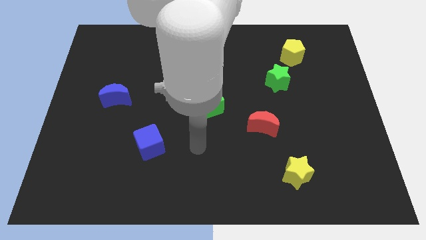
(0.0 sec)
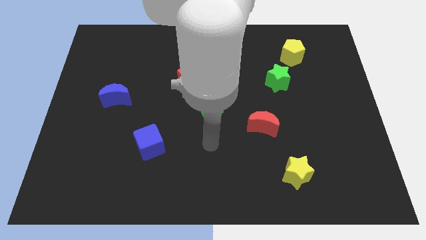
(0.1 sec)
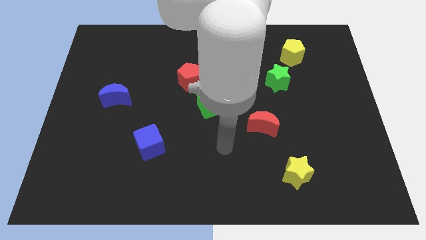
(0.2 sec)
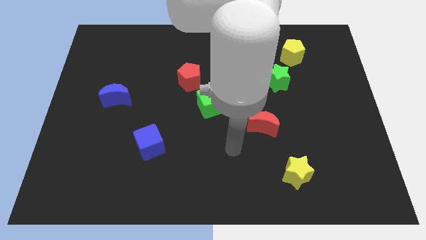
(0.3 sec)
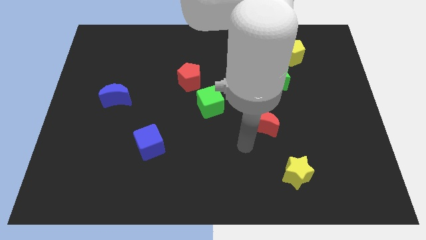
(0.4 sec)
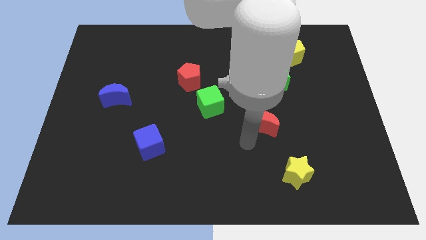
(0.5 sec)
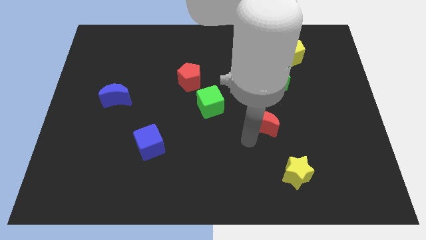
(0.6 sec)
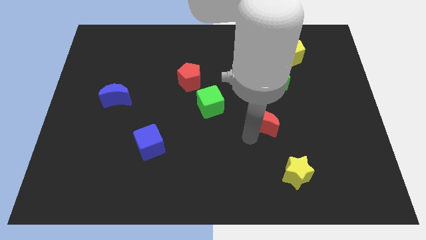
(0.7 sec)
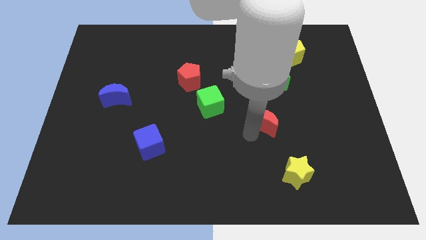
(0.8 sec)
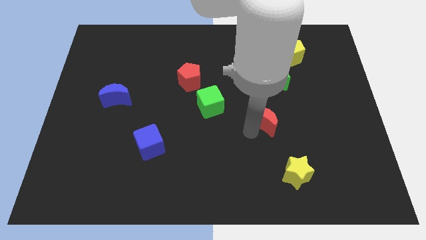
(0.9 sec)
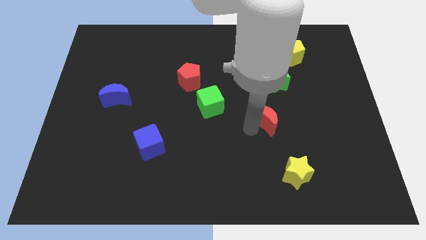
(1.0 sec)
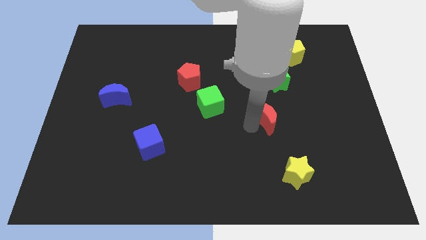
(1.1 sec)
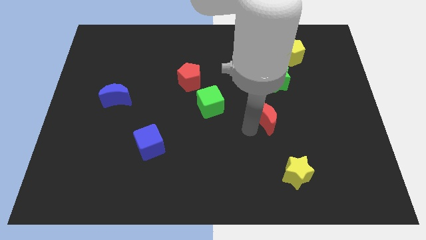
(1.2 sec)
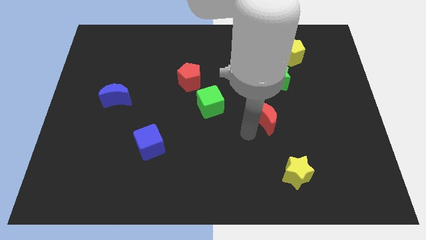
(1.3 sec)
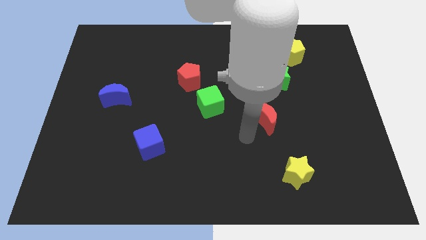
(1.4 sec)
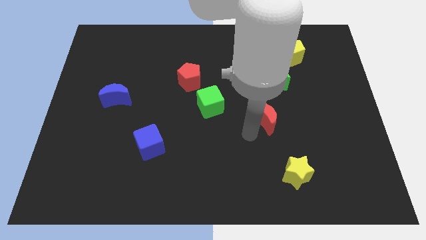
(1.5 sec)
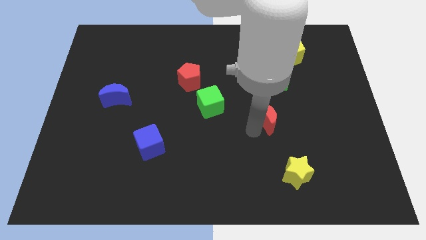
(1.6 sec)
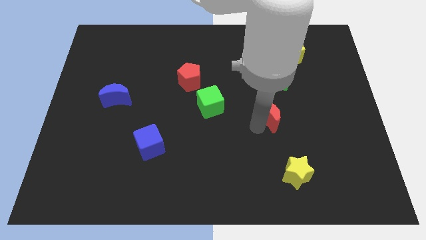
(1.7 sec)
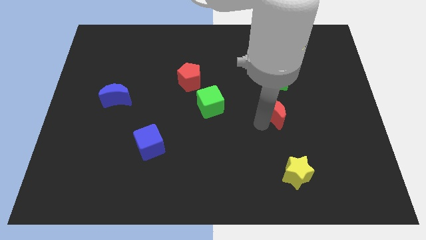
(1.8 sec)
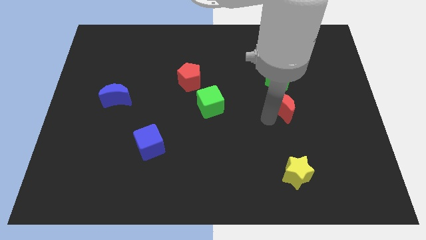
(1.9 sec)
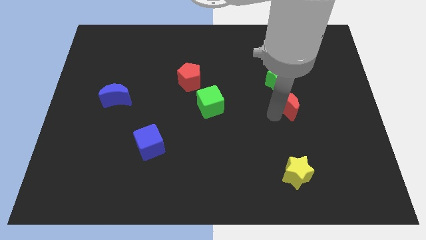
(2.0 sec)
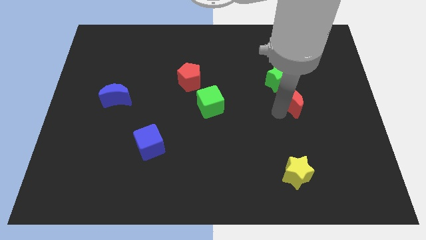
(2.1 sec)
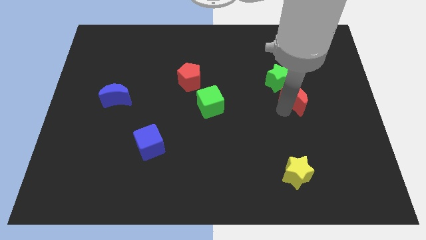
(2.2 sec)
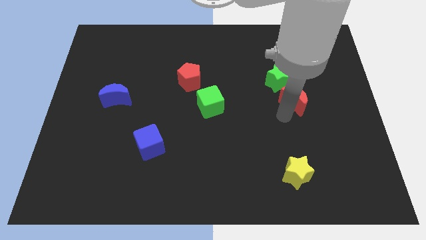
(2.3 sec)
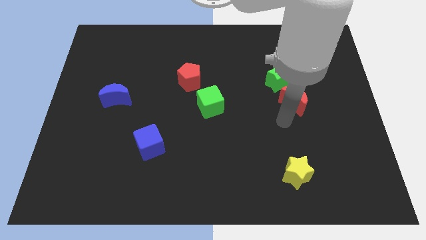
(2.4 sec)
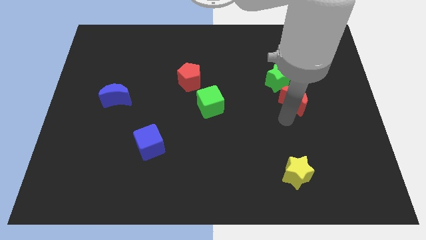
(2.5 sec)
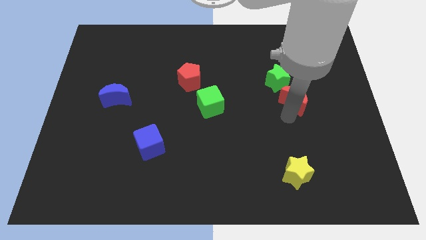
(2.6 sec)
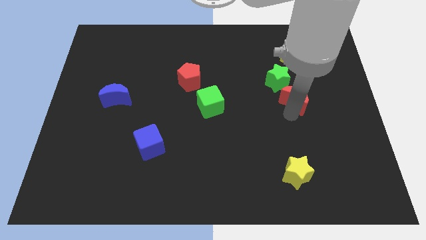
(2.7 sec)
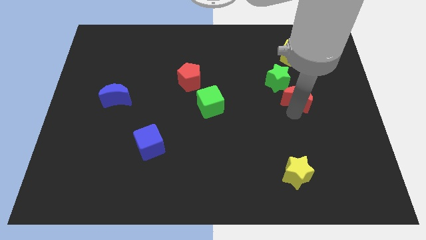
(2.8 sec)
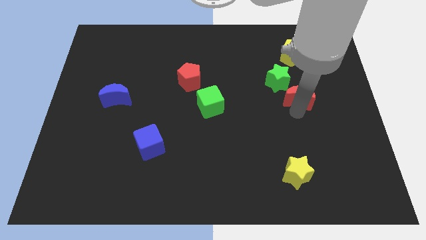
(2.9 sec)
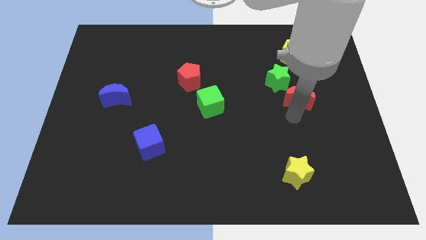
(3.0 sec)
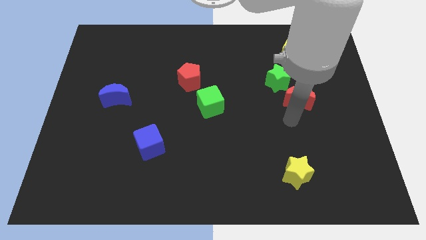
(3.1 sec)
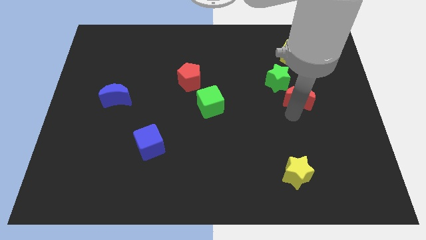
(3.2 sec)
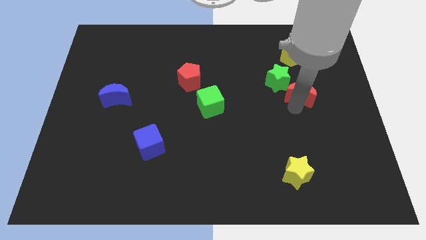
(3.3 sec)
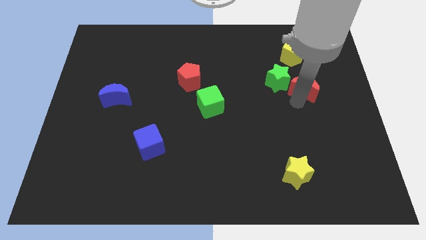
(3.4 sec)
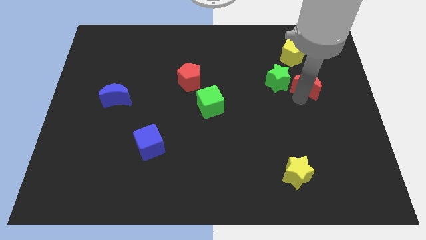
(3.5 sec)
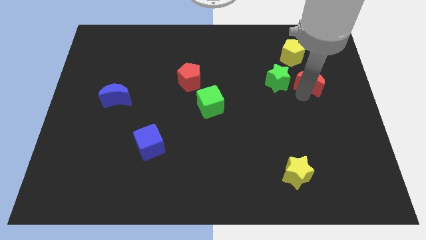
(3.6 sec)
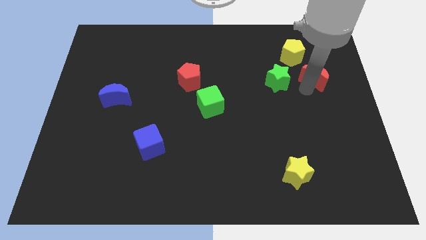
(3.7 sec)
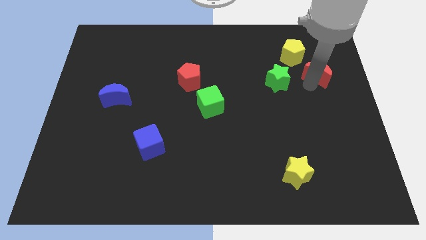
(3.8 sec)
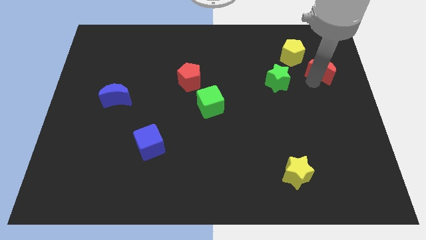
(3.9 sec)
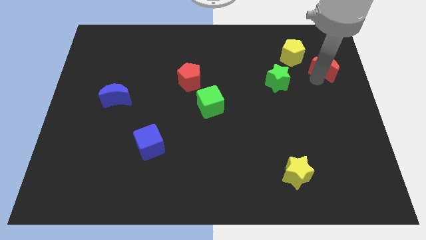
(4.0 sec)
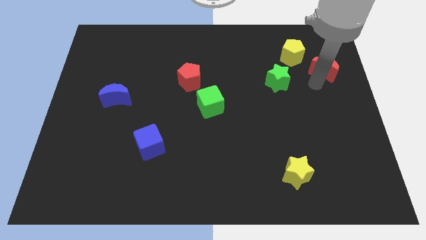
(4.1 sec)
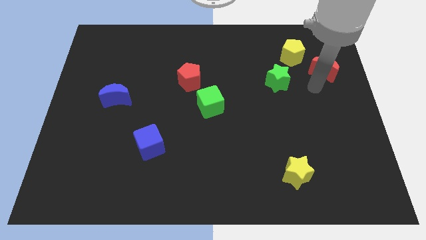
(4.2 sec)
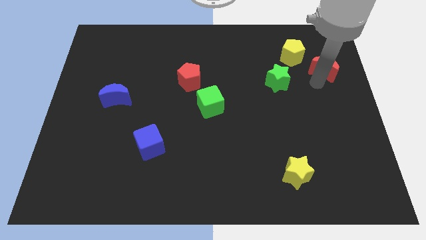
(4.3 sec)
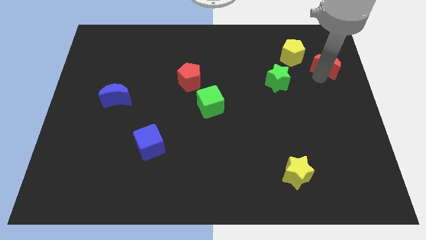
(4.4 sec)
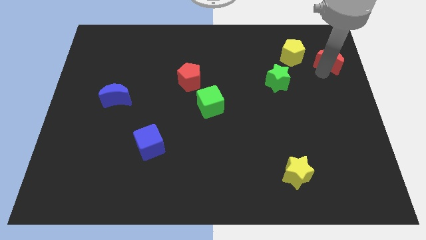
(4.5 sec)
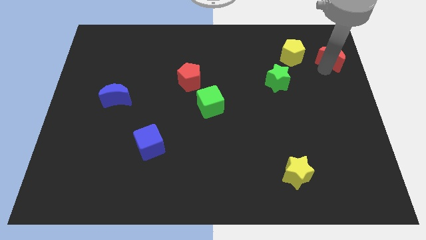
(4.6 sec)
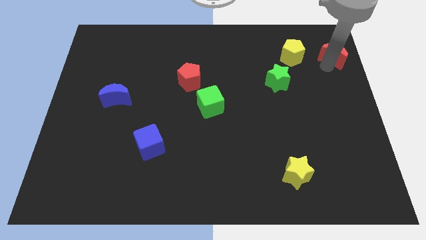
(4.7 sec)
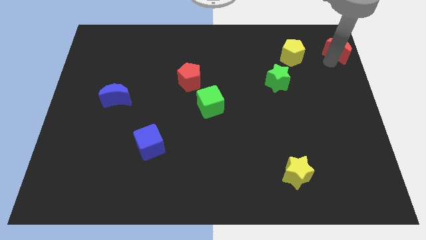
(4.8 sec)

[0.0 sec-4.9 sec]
slide the red moon to the top right

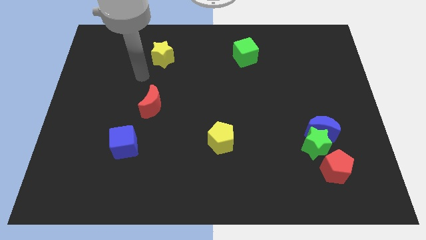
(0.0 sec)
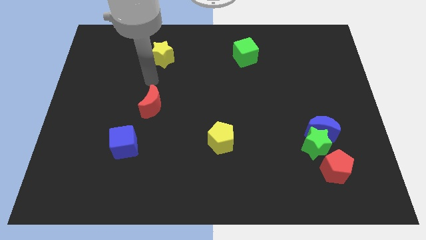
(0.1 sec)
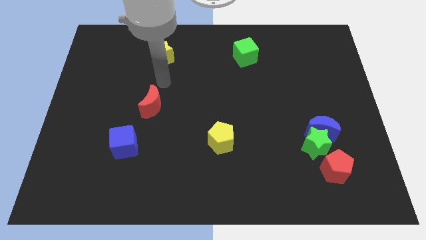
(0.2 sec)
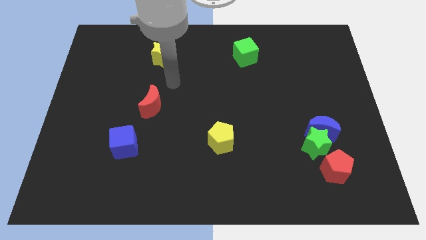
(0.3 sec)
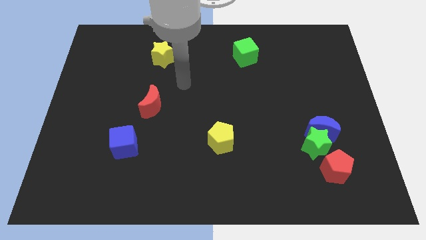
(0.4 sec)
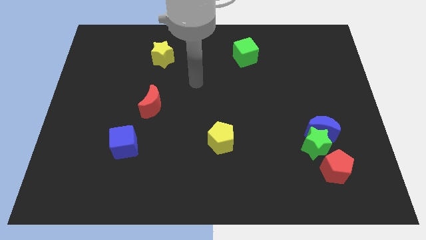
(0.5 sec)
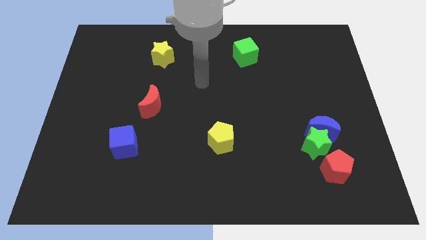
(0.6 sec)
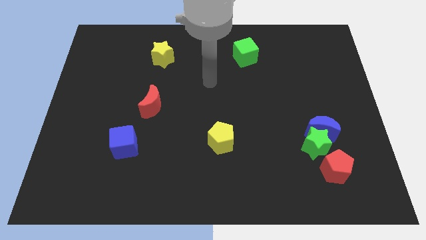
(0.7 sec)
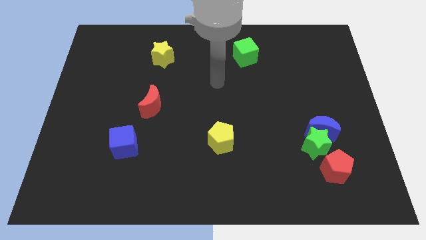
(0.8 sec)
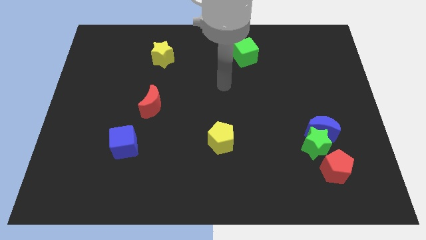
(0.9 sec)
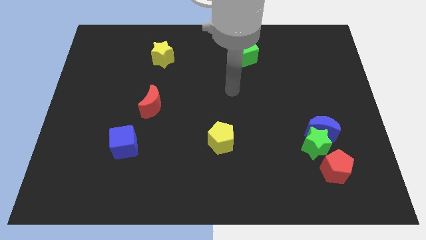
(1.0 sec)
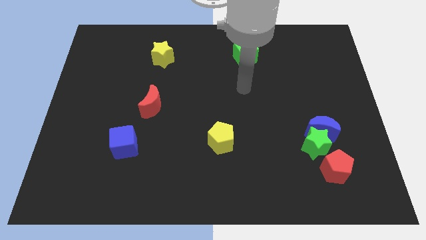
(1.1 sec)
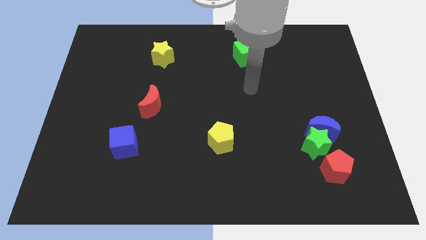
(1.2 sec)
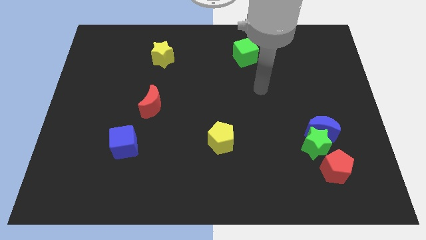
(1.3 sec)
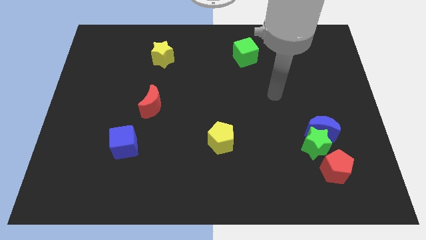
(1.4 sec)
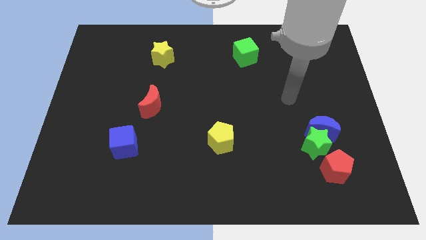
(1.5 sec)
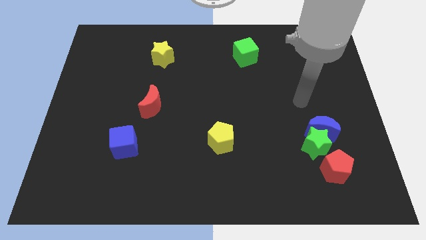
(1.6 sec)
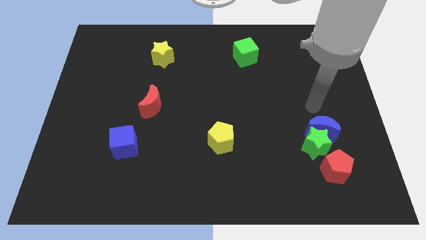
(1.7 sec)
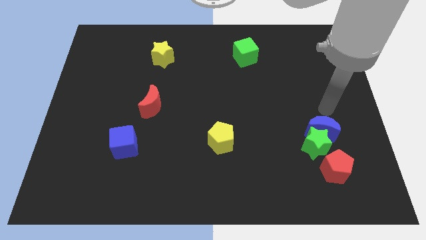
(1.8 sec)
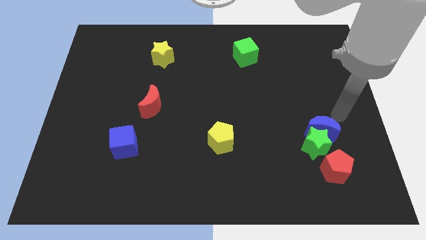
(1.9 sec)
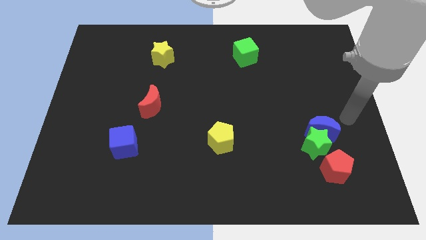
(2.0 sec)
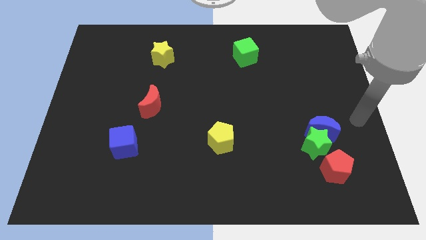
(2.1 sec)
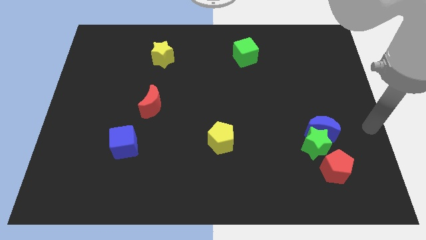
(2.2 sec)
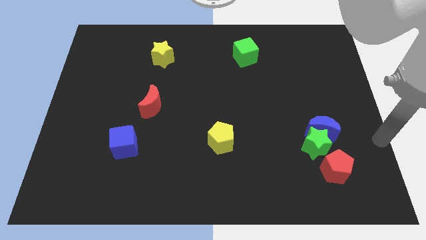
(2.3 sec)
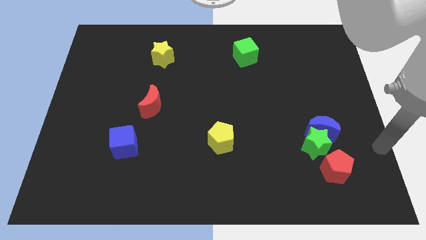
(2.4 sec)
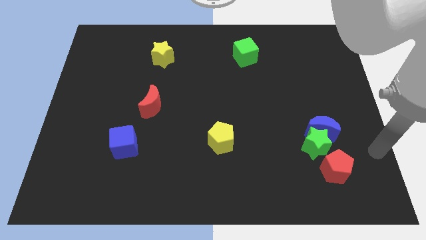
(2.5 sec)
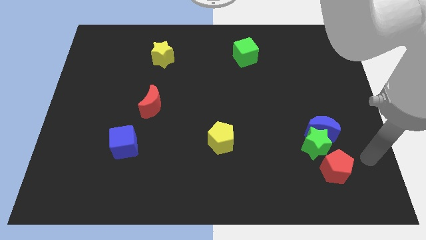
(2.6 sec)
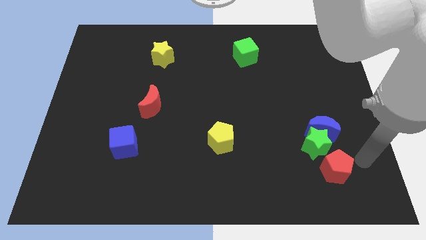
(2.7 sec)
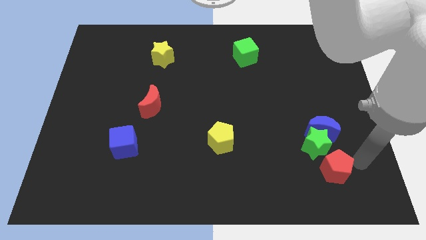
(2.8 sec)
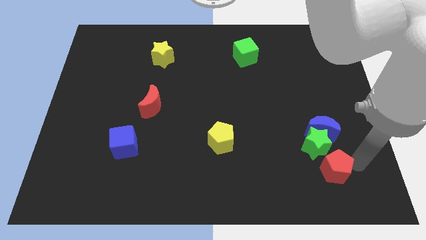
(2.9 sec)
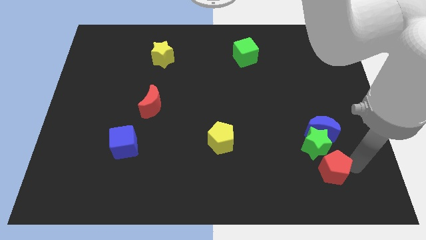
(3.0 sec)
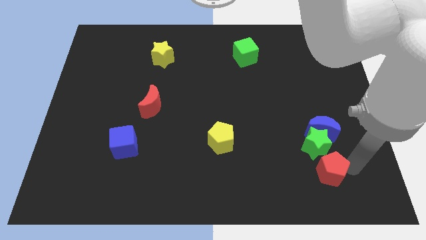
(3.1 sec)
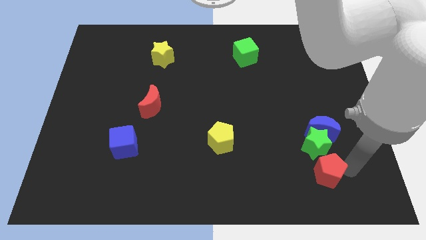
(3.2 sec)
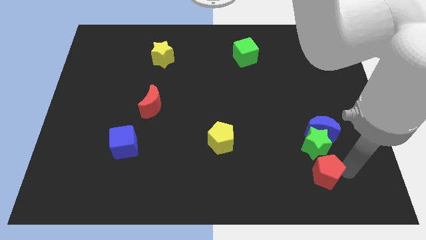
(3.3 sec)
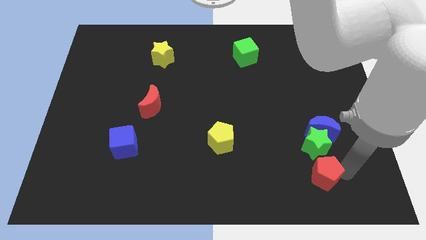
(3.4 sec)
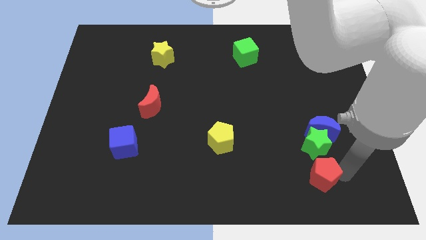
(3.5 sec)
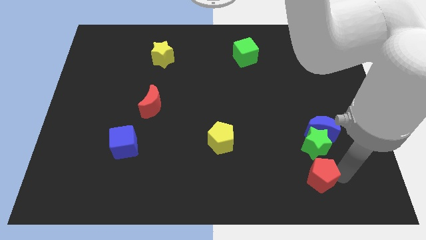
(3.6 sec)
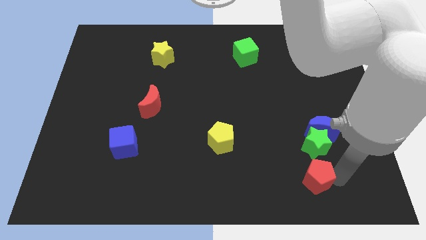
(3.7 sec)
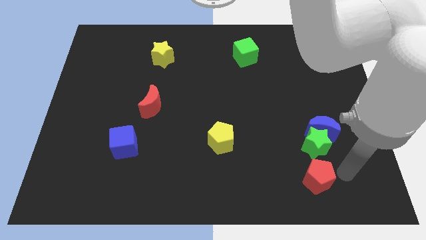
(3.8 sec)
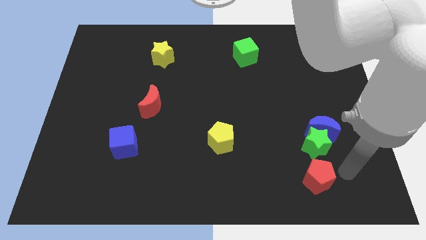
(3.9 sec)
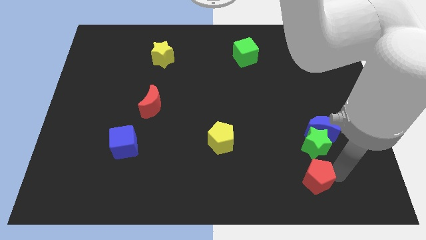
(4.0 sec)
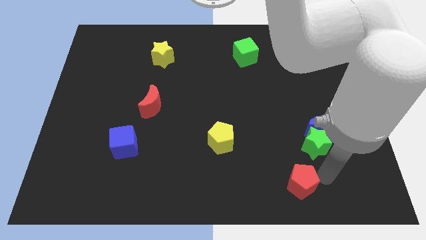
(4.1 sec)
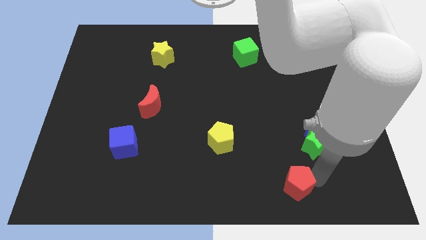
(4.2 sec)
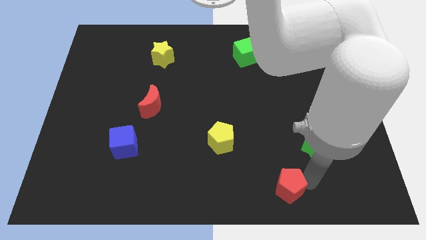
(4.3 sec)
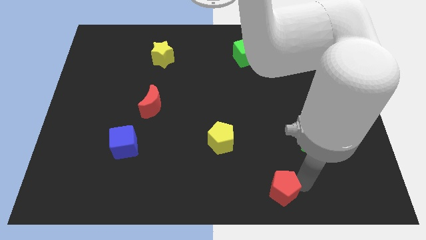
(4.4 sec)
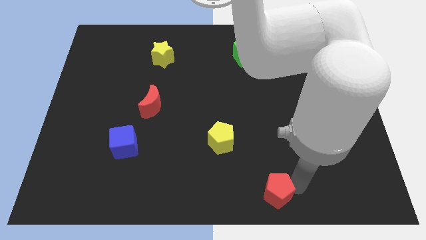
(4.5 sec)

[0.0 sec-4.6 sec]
push the red pentagon to the bottom
